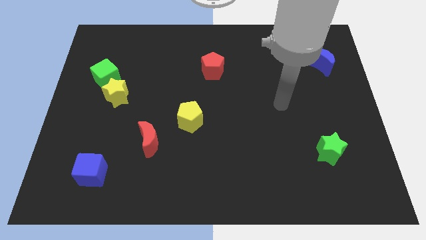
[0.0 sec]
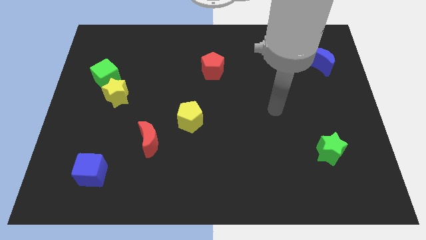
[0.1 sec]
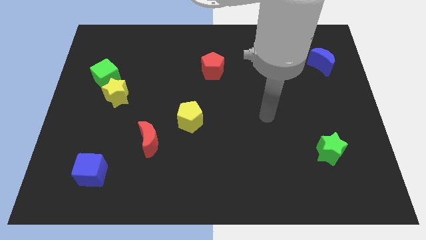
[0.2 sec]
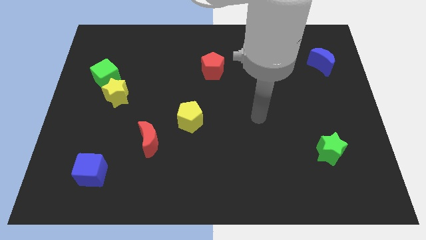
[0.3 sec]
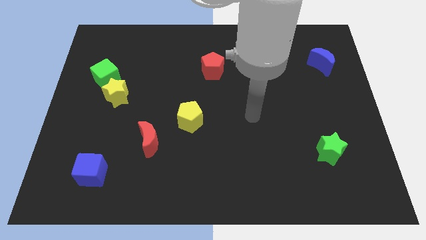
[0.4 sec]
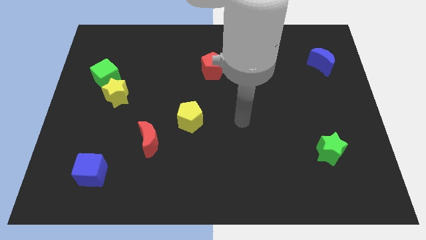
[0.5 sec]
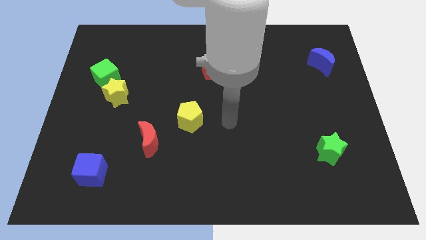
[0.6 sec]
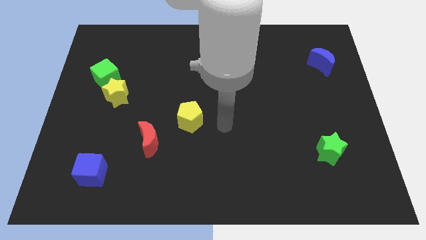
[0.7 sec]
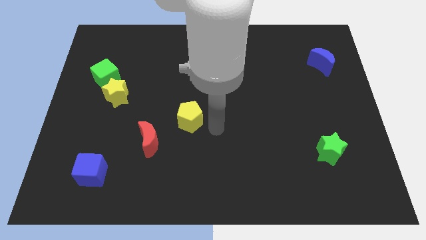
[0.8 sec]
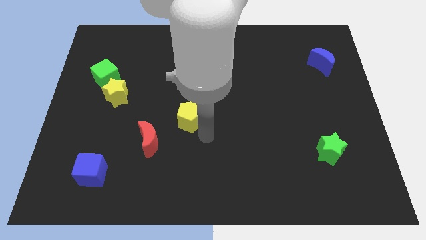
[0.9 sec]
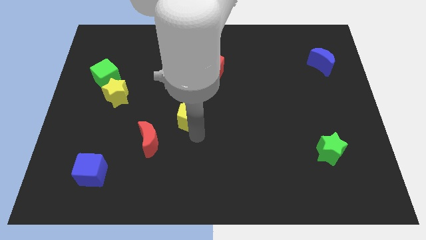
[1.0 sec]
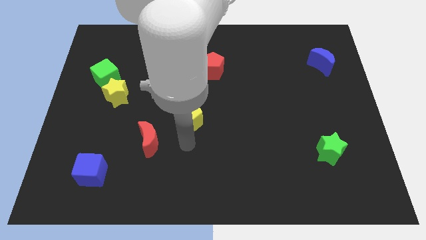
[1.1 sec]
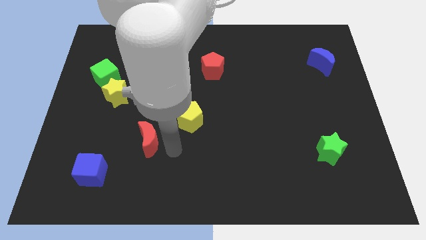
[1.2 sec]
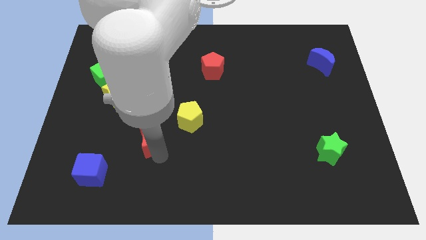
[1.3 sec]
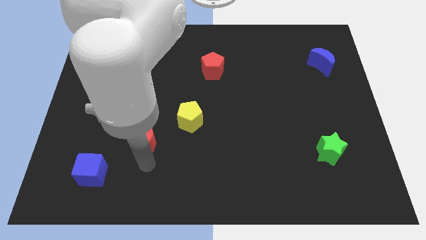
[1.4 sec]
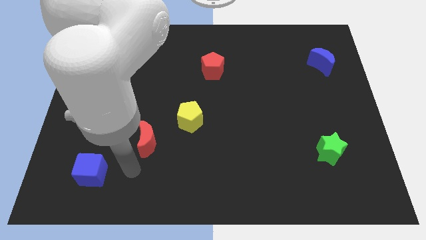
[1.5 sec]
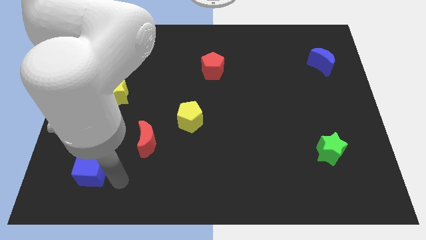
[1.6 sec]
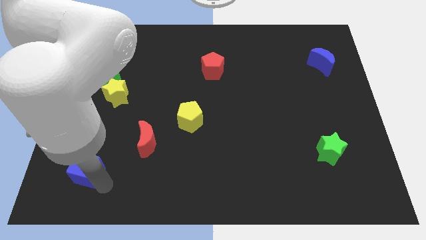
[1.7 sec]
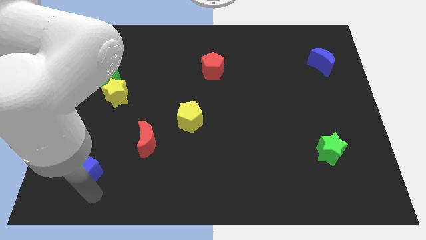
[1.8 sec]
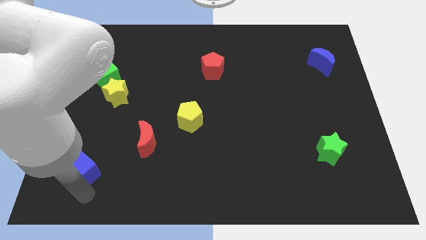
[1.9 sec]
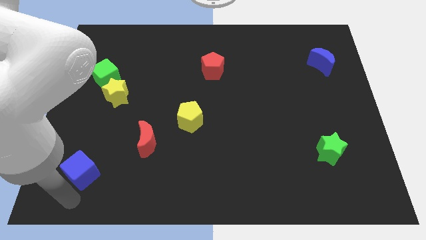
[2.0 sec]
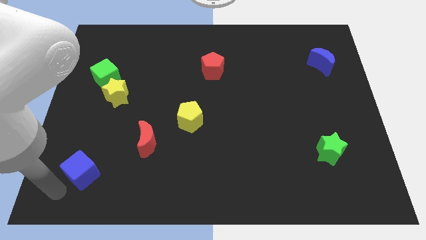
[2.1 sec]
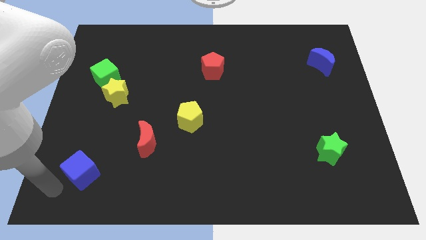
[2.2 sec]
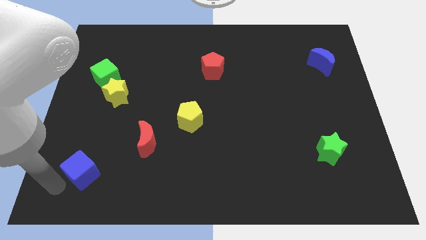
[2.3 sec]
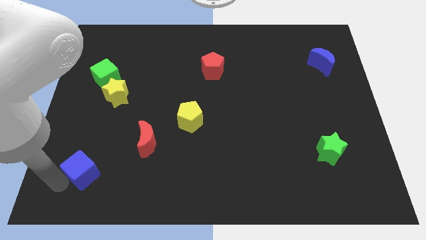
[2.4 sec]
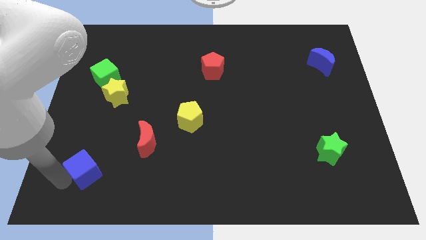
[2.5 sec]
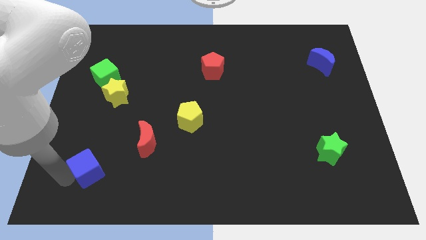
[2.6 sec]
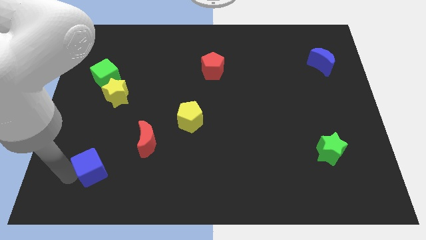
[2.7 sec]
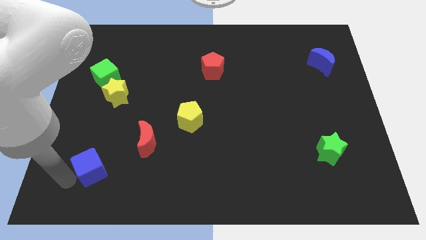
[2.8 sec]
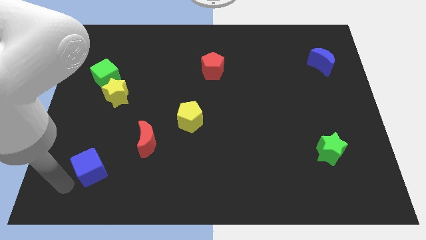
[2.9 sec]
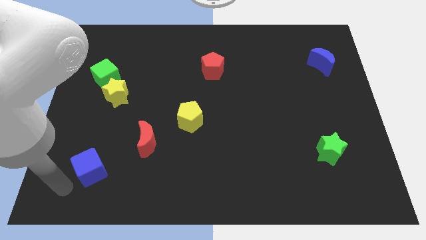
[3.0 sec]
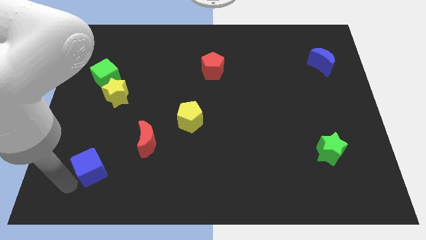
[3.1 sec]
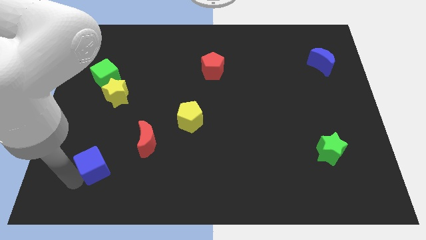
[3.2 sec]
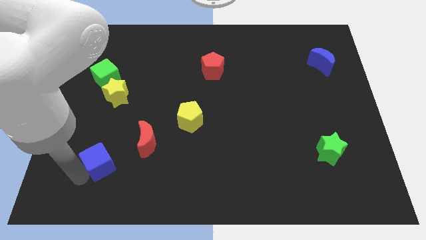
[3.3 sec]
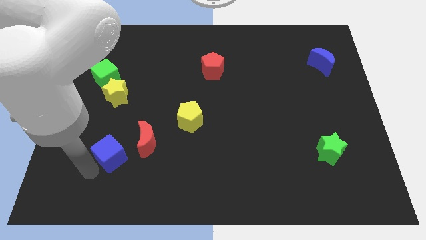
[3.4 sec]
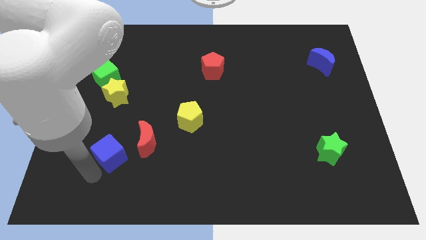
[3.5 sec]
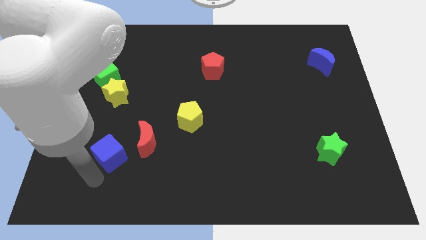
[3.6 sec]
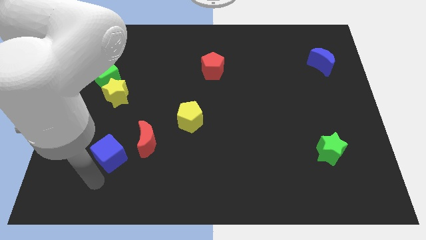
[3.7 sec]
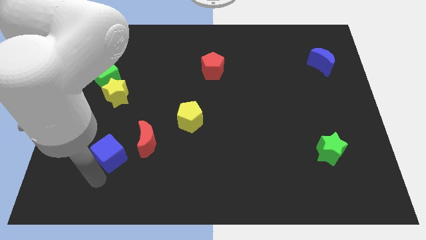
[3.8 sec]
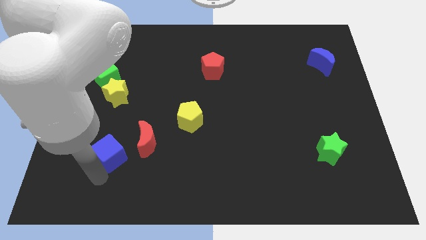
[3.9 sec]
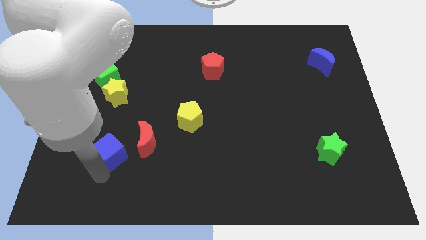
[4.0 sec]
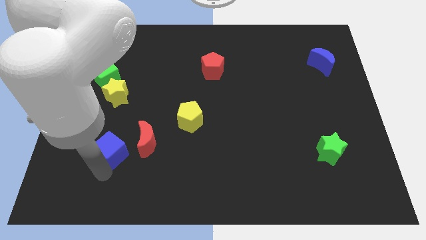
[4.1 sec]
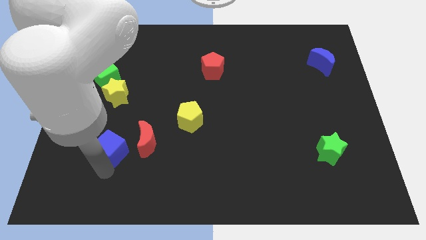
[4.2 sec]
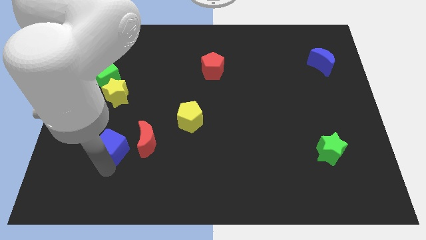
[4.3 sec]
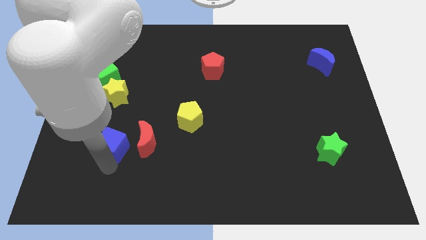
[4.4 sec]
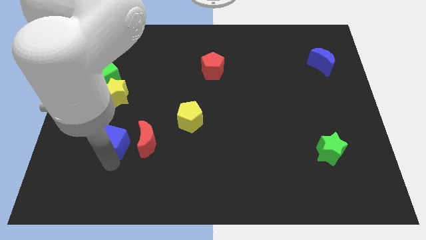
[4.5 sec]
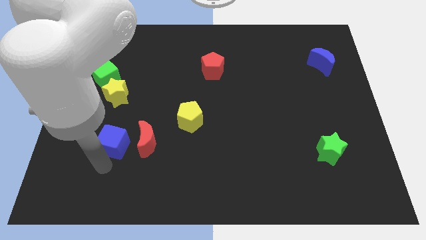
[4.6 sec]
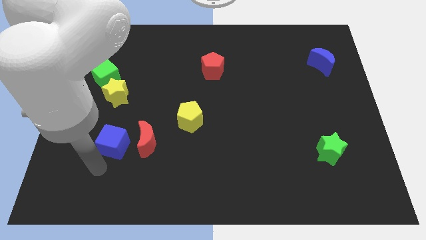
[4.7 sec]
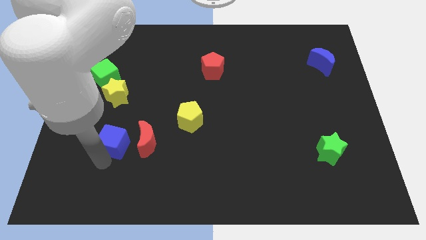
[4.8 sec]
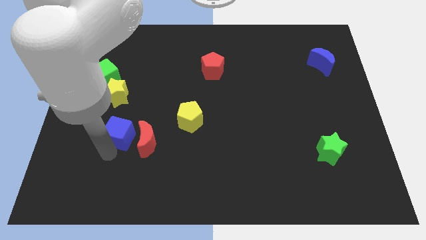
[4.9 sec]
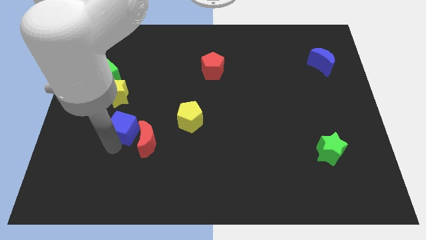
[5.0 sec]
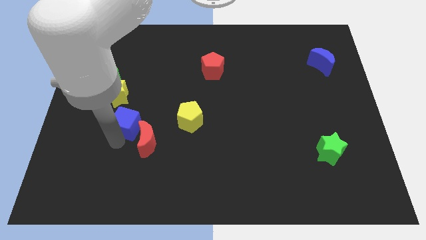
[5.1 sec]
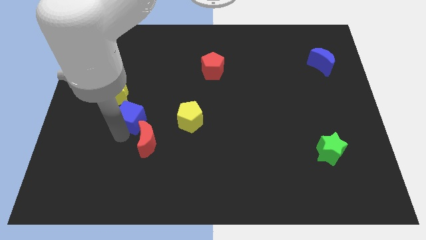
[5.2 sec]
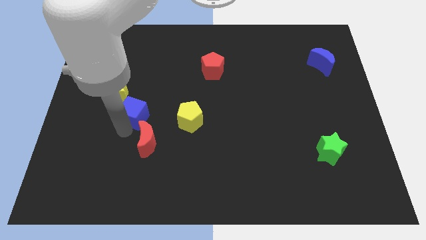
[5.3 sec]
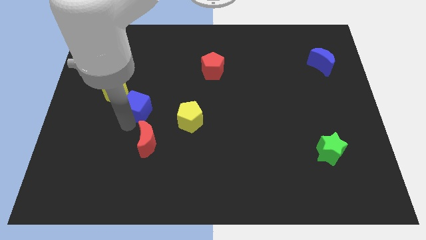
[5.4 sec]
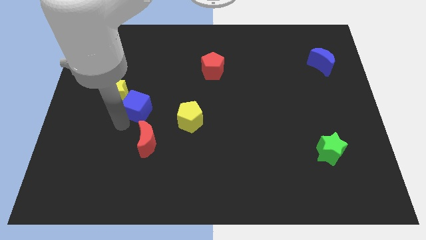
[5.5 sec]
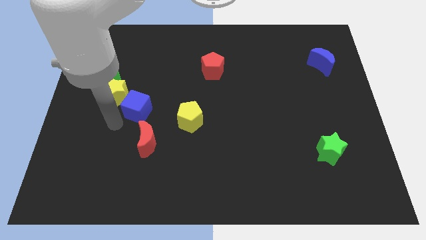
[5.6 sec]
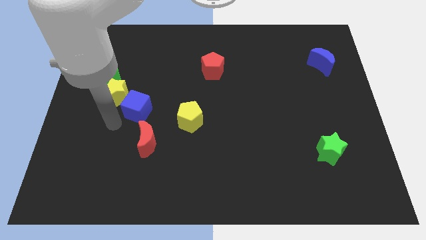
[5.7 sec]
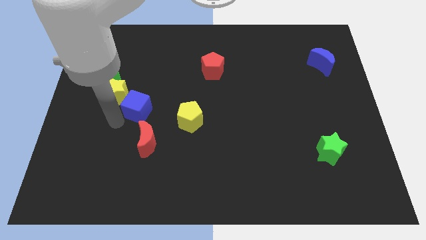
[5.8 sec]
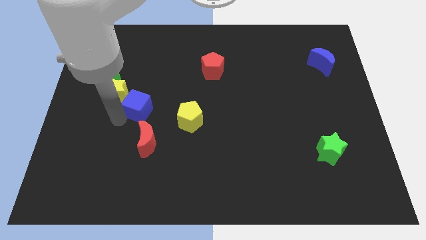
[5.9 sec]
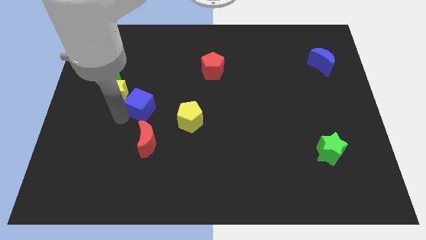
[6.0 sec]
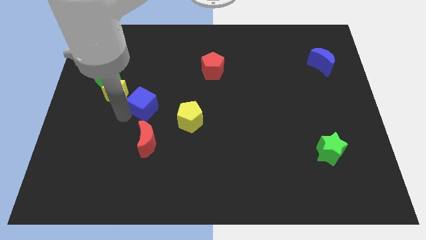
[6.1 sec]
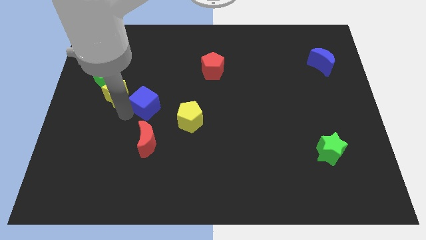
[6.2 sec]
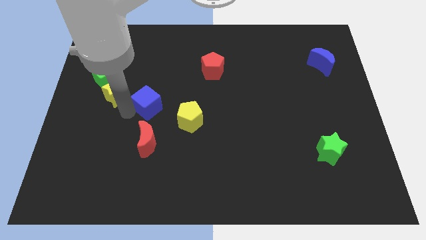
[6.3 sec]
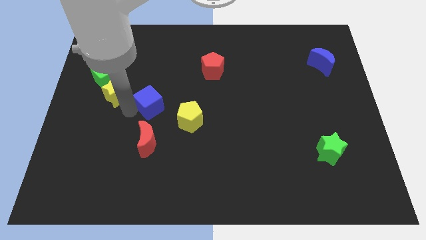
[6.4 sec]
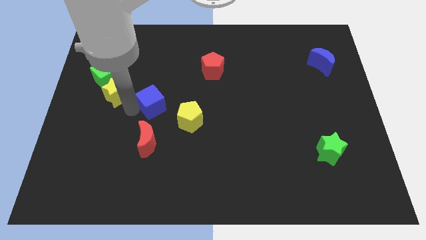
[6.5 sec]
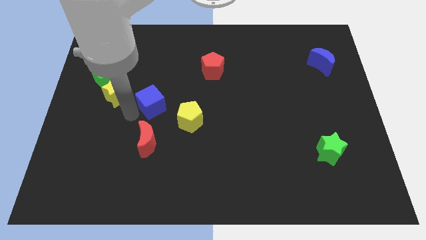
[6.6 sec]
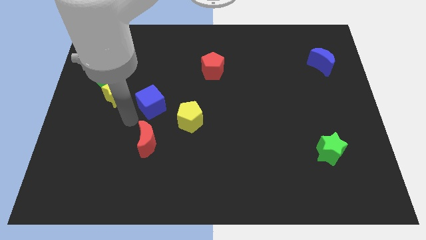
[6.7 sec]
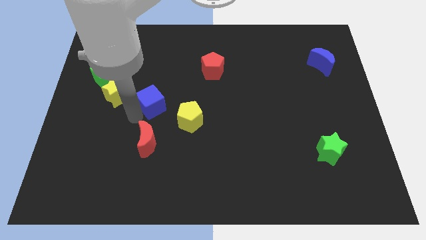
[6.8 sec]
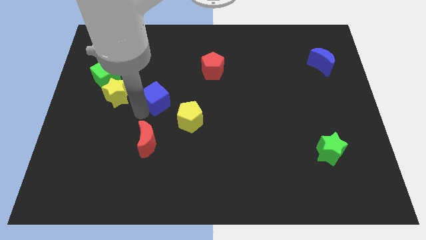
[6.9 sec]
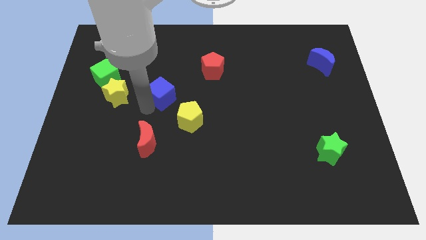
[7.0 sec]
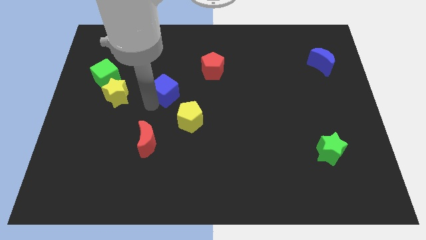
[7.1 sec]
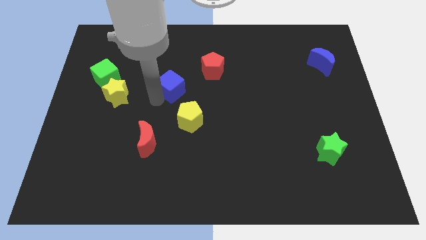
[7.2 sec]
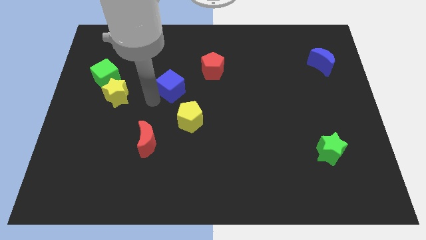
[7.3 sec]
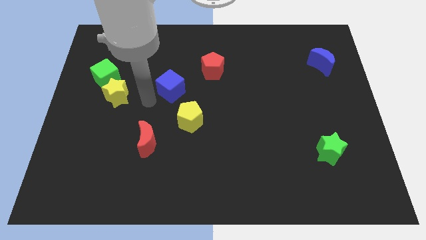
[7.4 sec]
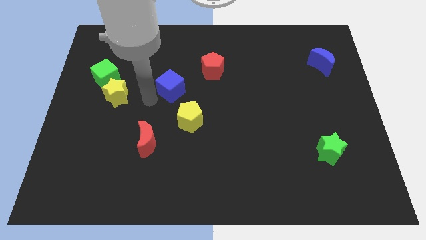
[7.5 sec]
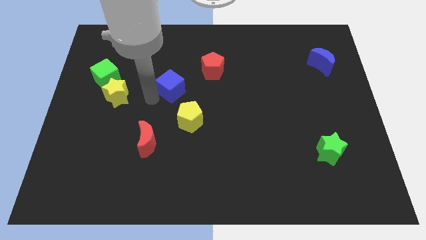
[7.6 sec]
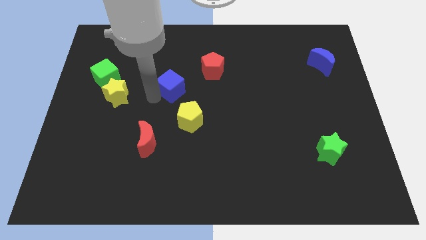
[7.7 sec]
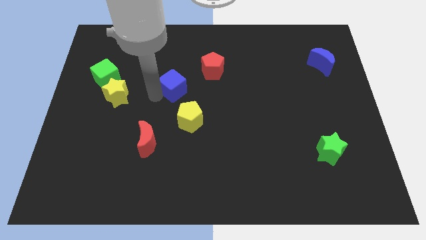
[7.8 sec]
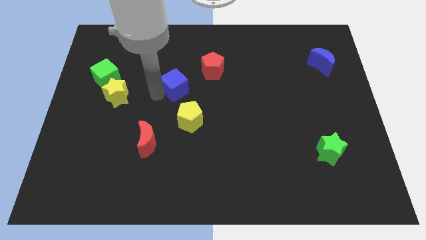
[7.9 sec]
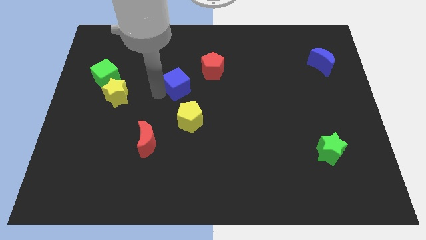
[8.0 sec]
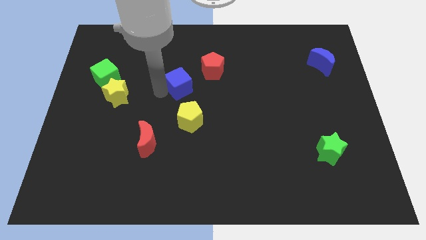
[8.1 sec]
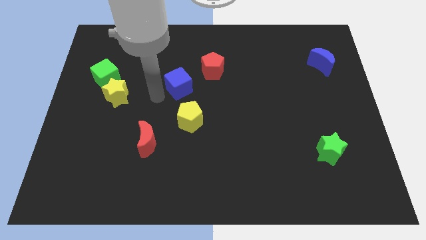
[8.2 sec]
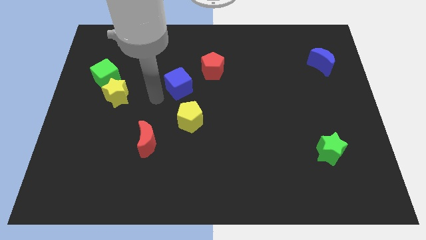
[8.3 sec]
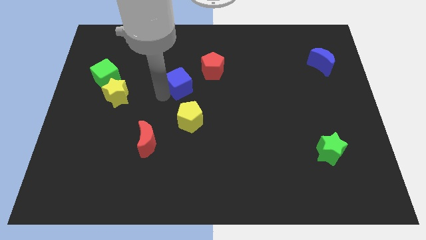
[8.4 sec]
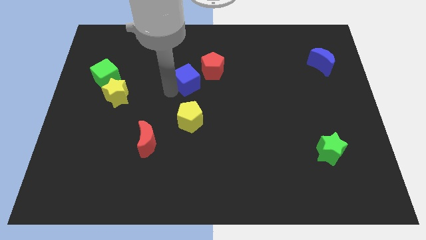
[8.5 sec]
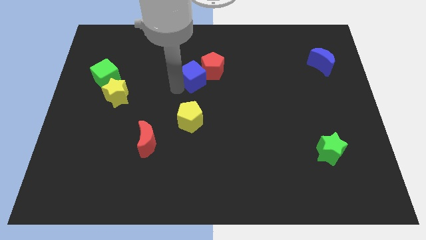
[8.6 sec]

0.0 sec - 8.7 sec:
move the blue cube to the red pentagon
